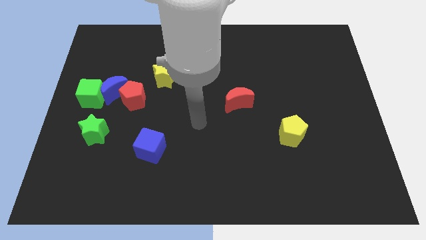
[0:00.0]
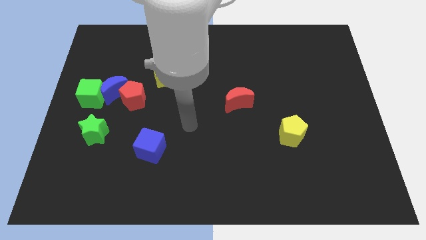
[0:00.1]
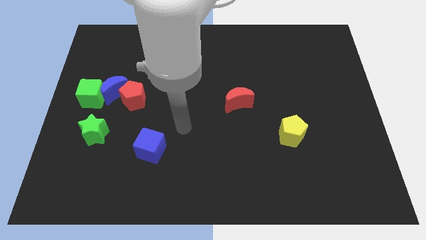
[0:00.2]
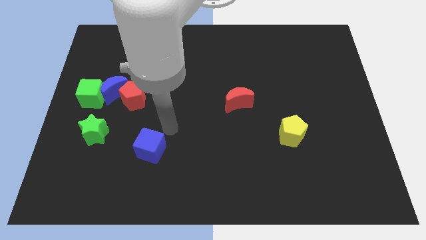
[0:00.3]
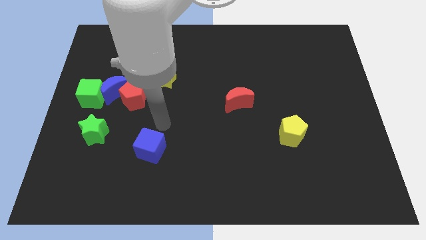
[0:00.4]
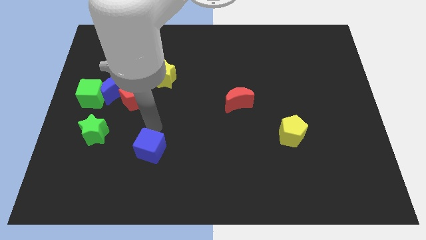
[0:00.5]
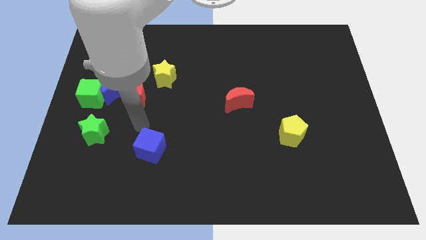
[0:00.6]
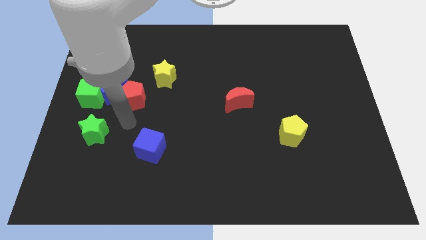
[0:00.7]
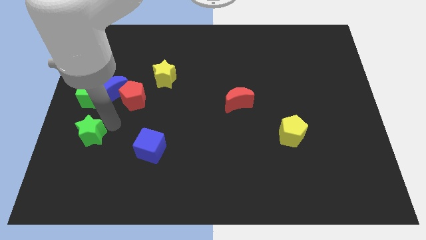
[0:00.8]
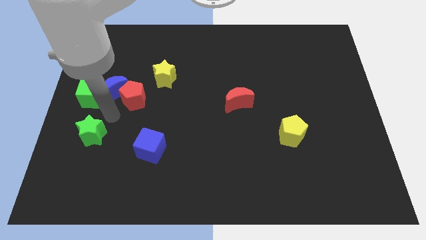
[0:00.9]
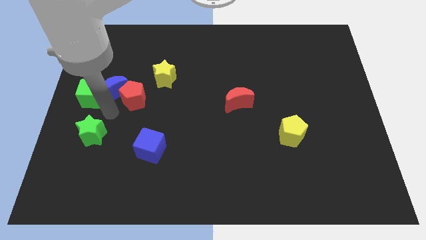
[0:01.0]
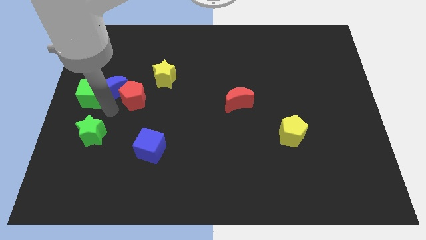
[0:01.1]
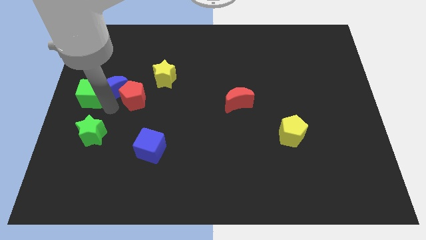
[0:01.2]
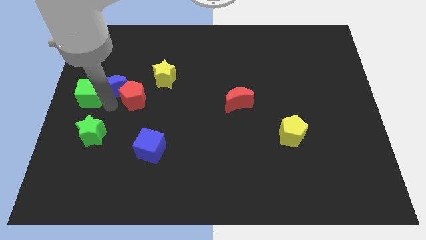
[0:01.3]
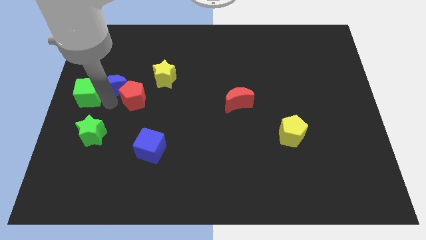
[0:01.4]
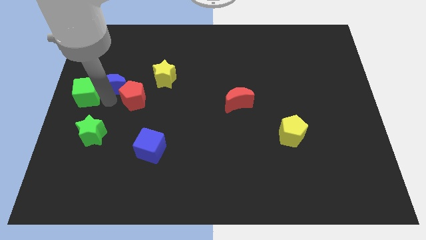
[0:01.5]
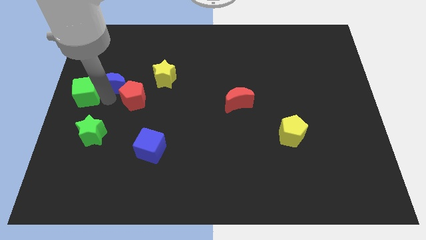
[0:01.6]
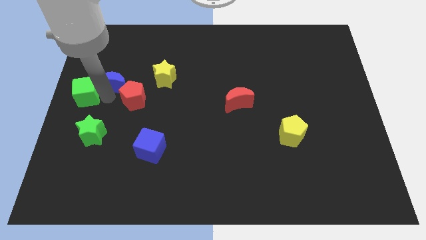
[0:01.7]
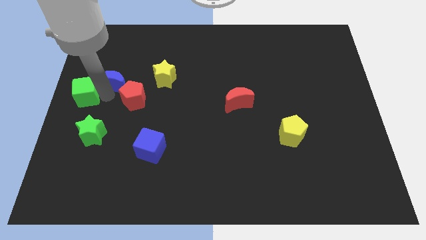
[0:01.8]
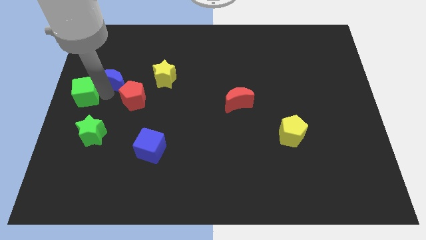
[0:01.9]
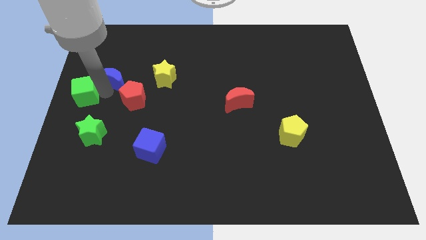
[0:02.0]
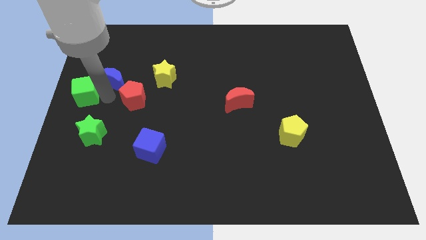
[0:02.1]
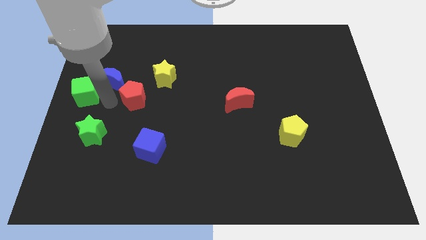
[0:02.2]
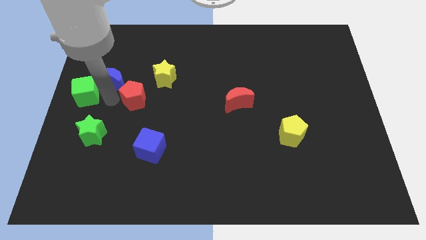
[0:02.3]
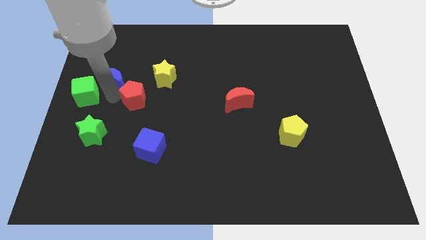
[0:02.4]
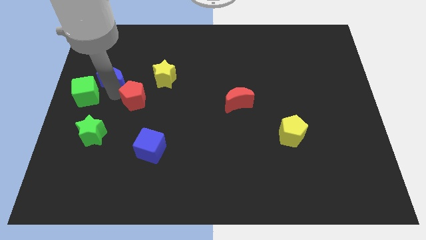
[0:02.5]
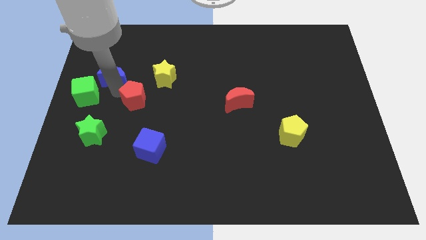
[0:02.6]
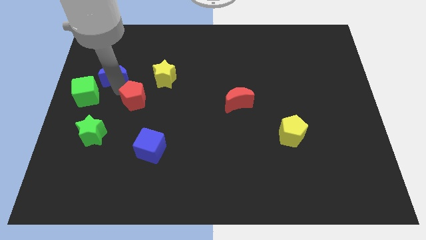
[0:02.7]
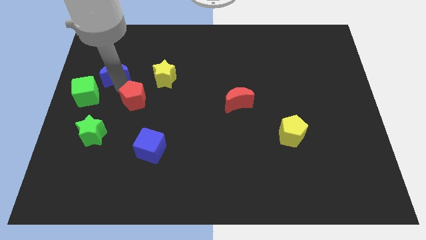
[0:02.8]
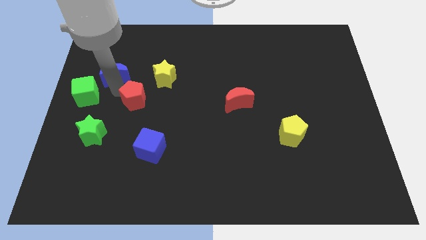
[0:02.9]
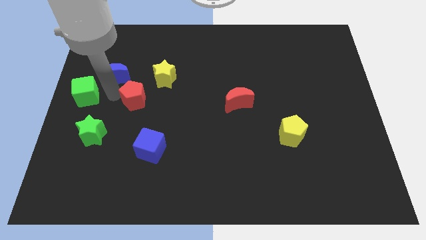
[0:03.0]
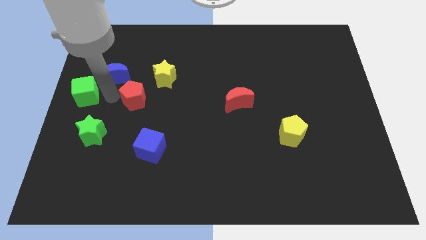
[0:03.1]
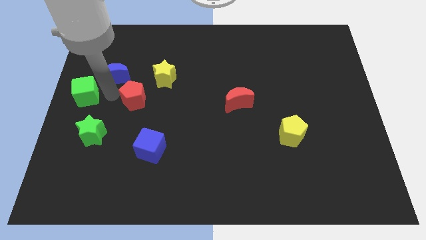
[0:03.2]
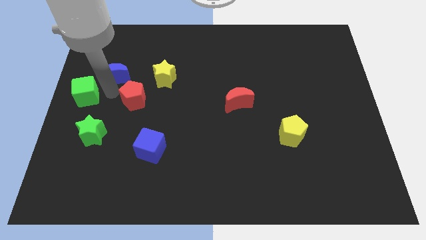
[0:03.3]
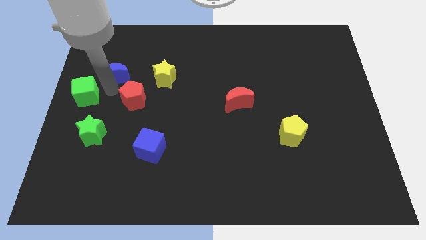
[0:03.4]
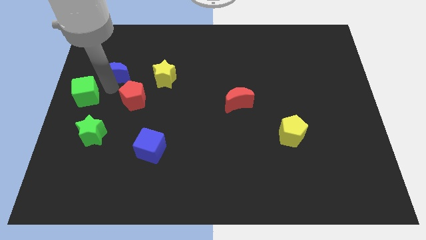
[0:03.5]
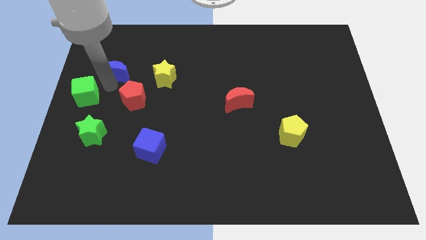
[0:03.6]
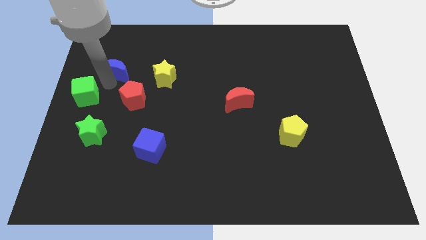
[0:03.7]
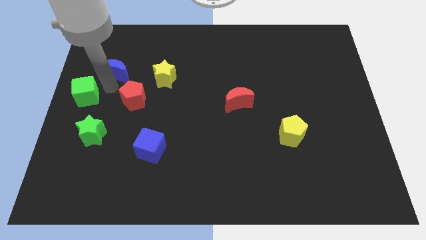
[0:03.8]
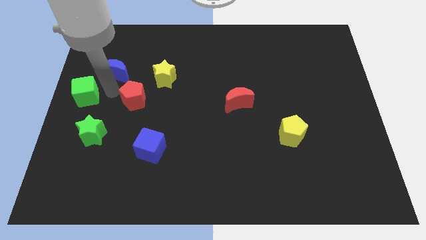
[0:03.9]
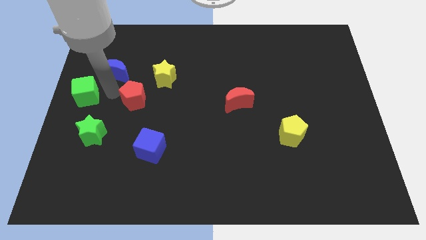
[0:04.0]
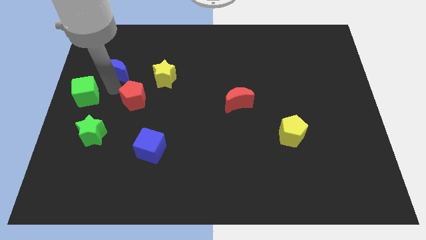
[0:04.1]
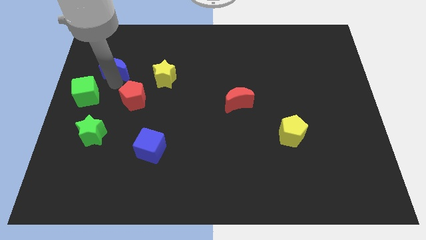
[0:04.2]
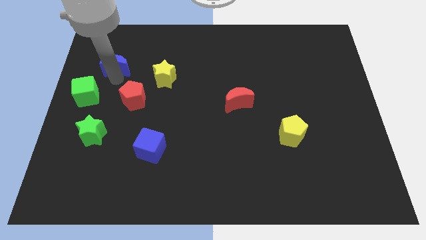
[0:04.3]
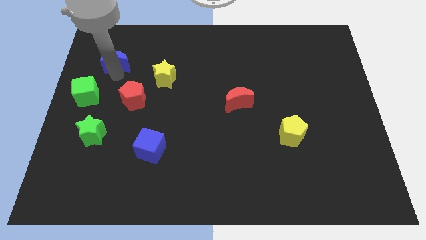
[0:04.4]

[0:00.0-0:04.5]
pull the blue moon apart from the green cube and red pentagon

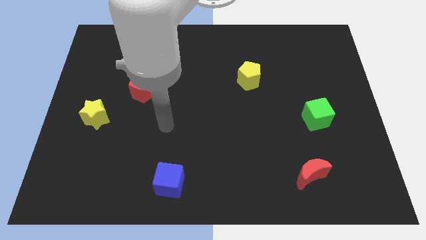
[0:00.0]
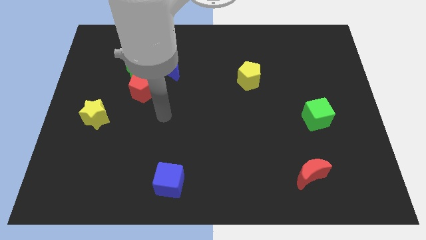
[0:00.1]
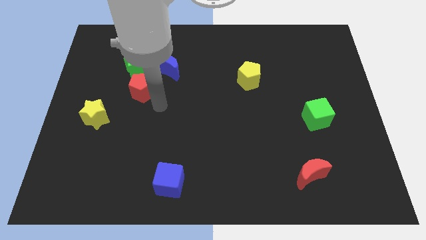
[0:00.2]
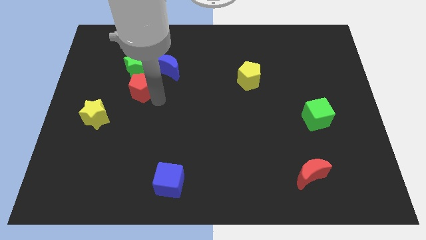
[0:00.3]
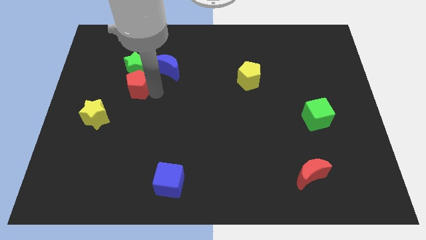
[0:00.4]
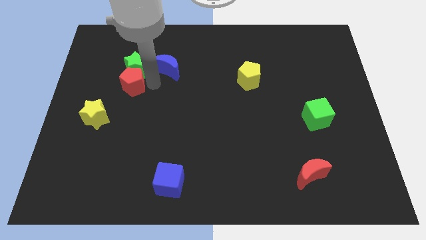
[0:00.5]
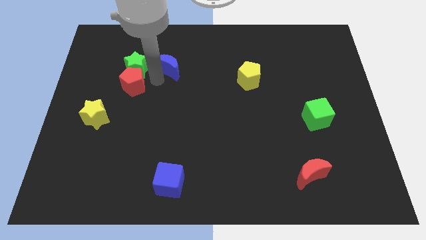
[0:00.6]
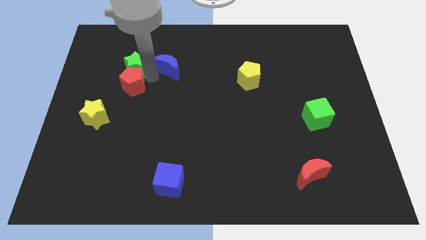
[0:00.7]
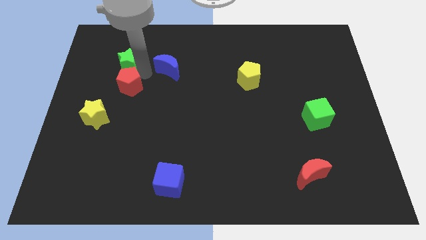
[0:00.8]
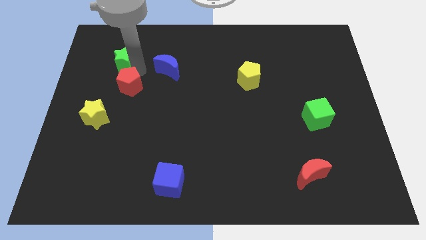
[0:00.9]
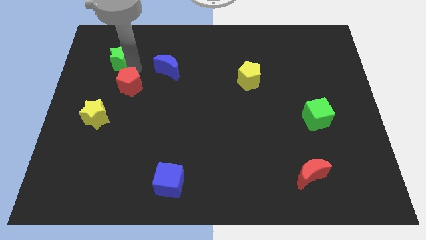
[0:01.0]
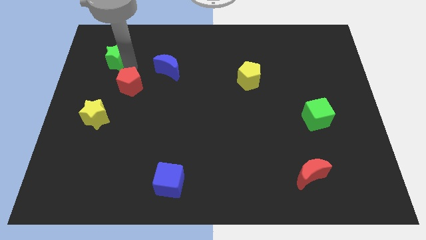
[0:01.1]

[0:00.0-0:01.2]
move the green star away from the red pentagon and blue moon

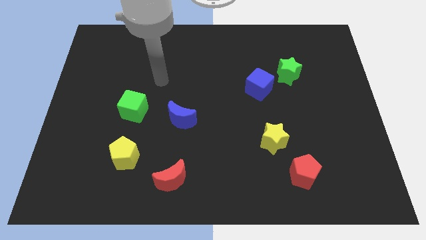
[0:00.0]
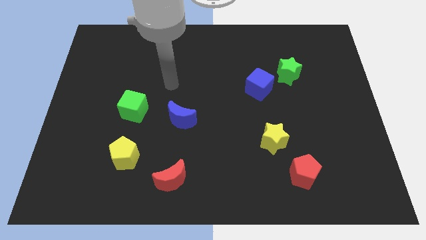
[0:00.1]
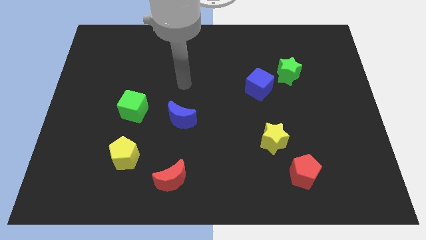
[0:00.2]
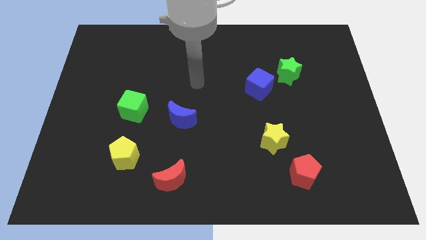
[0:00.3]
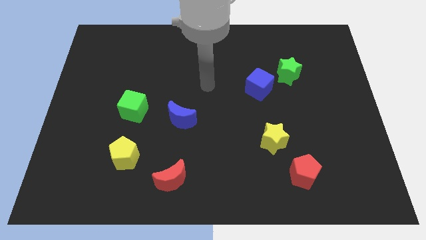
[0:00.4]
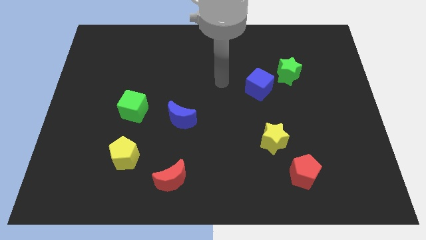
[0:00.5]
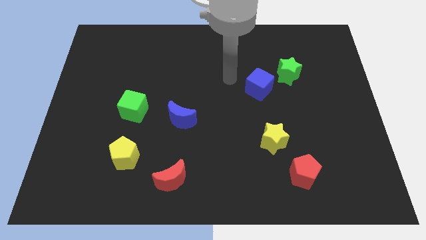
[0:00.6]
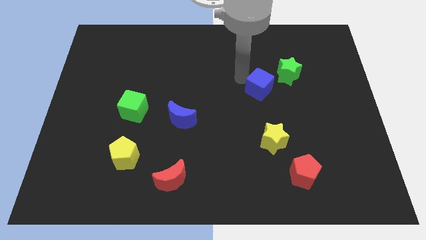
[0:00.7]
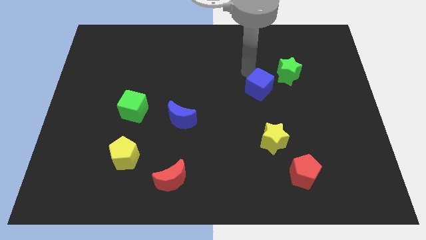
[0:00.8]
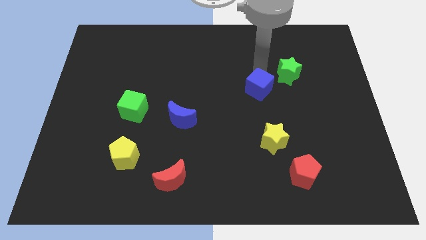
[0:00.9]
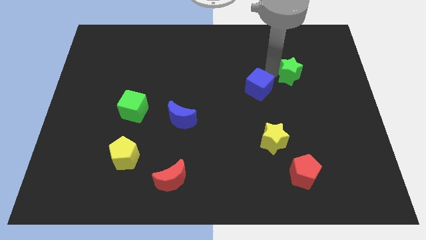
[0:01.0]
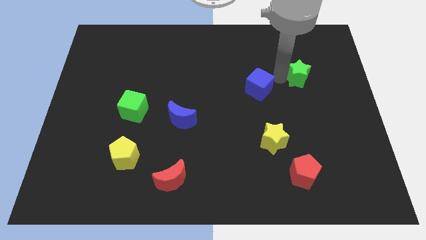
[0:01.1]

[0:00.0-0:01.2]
move the blue cube away from the green star

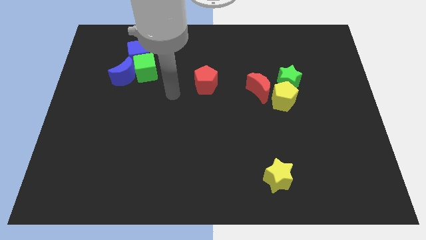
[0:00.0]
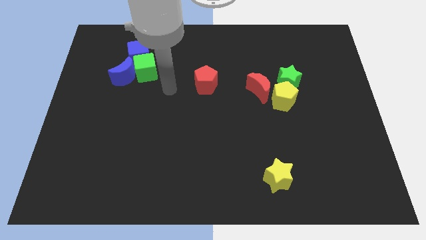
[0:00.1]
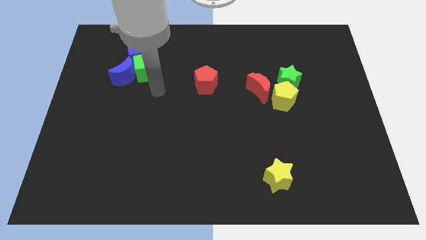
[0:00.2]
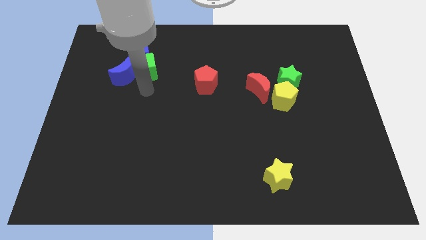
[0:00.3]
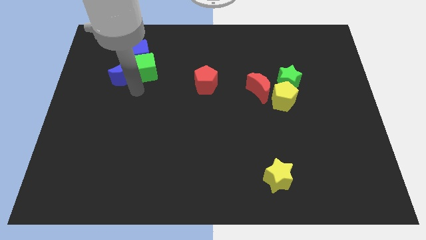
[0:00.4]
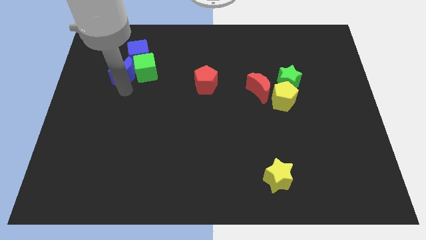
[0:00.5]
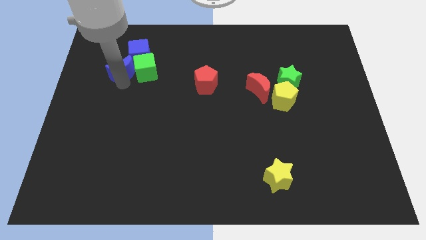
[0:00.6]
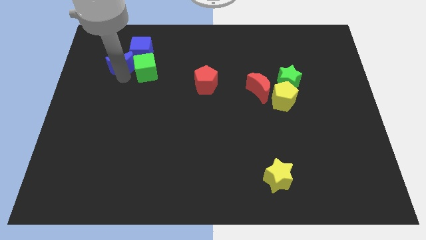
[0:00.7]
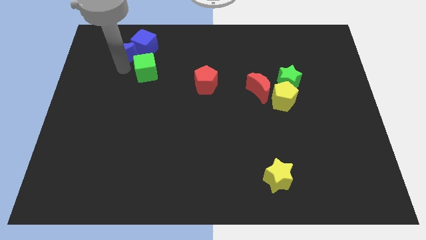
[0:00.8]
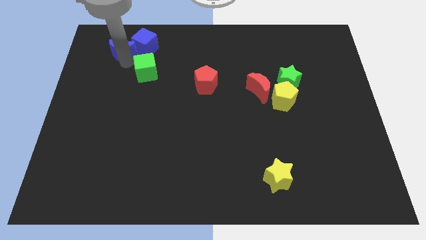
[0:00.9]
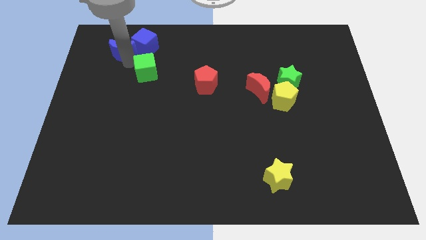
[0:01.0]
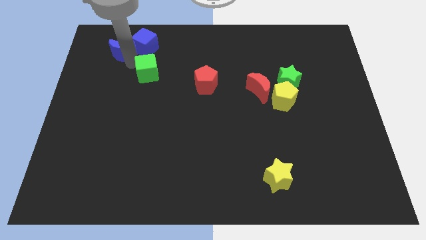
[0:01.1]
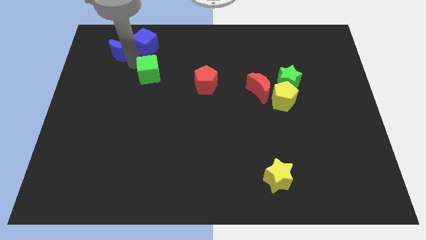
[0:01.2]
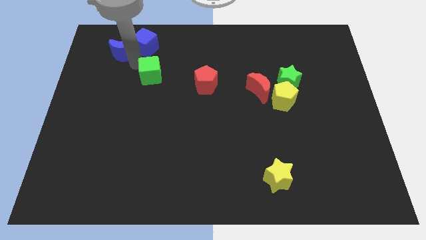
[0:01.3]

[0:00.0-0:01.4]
move the green cube away from the blue moon and blue cube

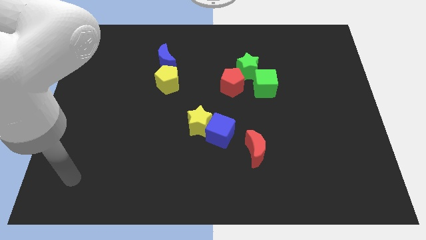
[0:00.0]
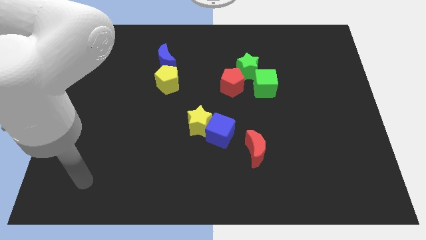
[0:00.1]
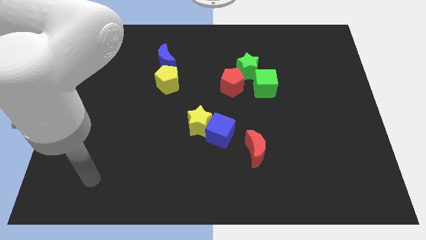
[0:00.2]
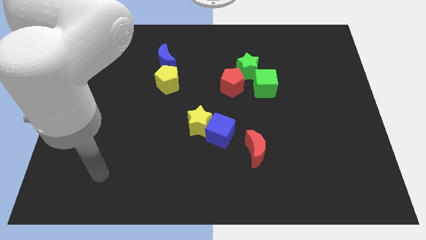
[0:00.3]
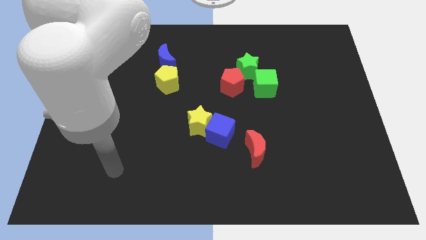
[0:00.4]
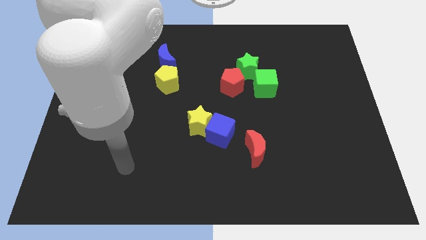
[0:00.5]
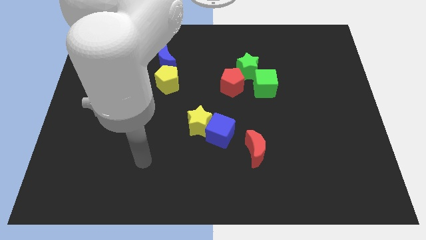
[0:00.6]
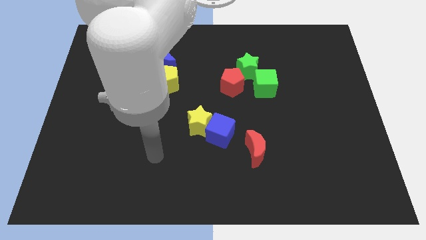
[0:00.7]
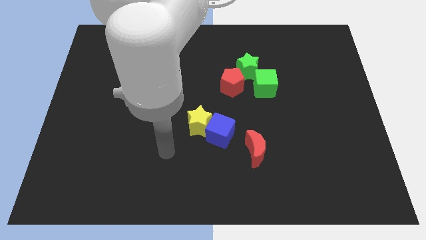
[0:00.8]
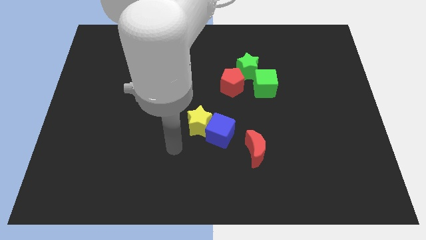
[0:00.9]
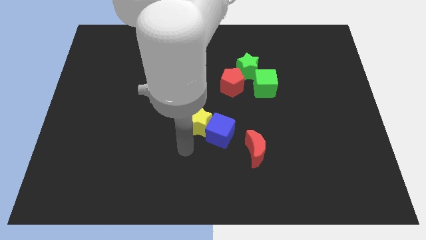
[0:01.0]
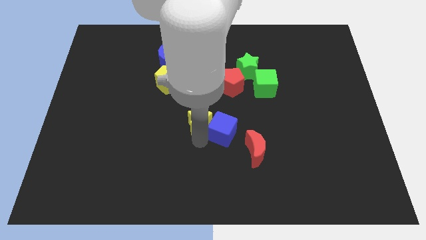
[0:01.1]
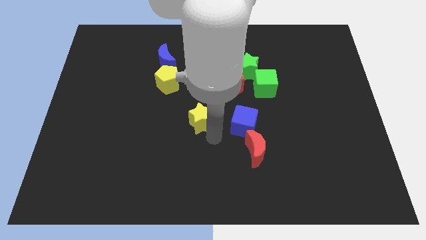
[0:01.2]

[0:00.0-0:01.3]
separate the yellow star from the blue cube
